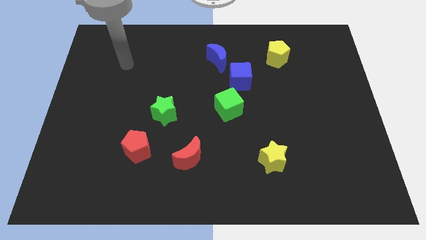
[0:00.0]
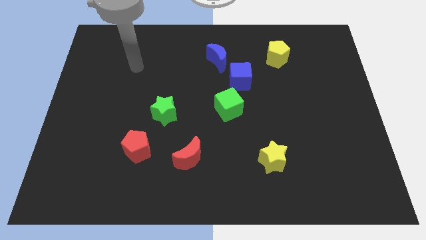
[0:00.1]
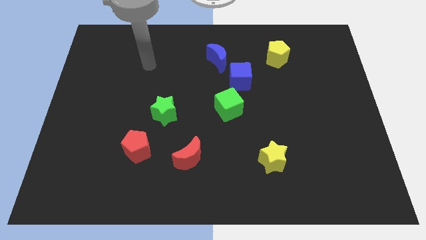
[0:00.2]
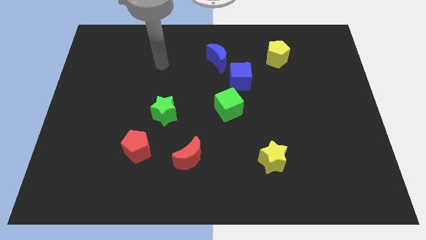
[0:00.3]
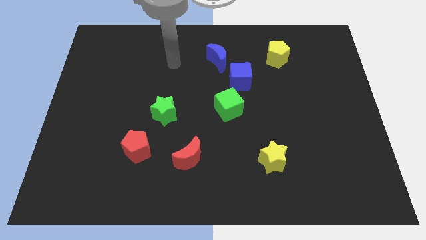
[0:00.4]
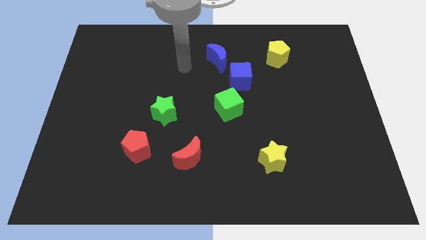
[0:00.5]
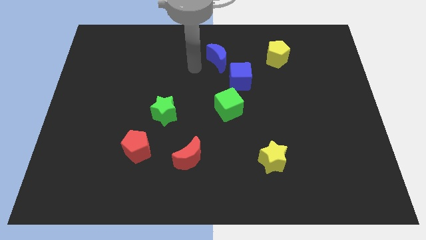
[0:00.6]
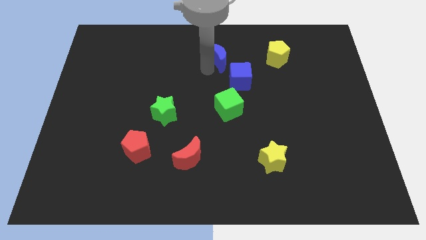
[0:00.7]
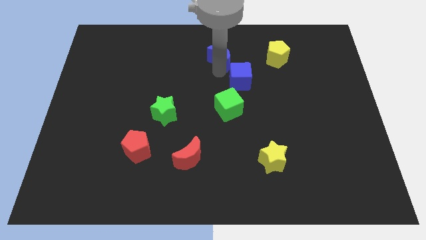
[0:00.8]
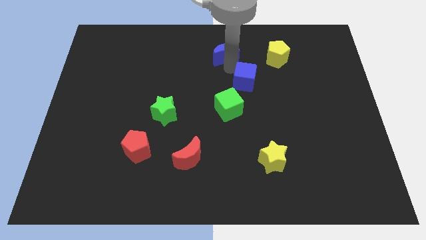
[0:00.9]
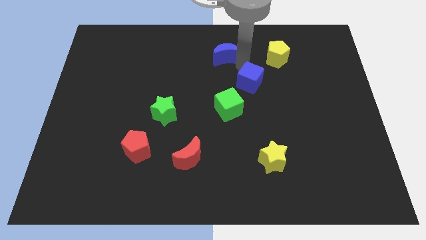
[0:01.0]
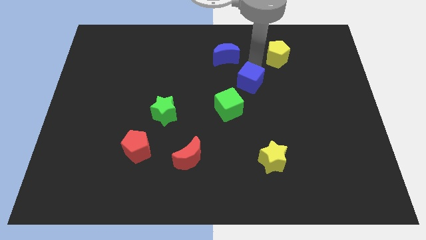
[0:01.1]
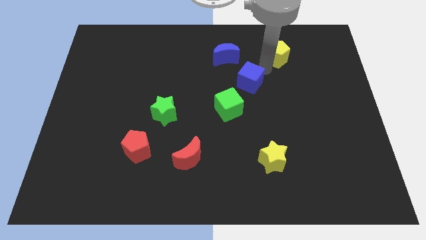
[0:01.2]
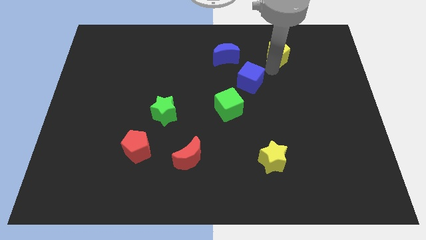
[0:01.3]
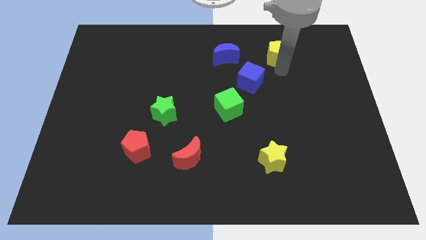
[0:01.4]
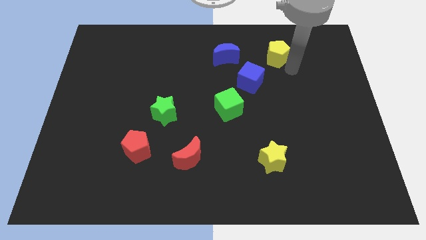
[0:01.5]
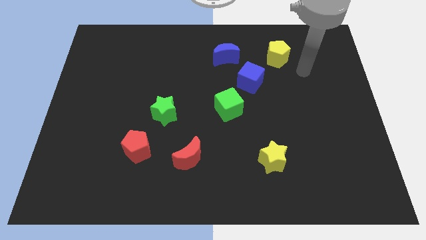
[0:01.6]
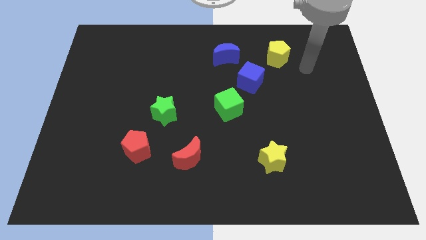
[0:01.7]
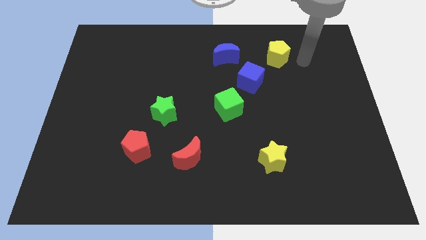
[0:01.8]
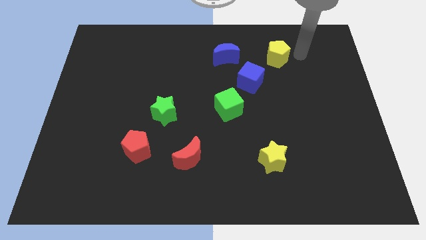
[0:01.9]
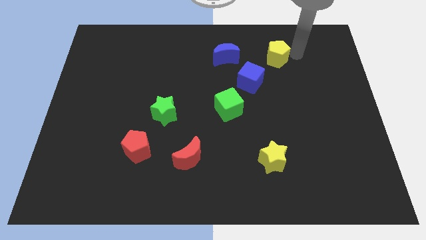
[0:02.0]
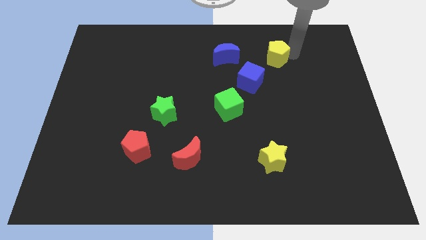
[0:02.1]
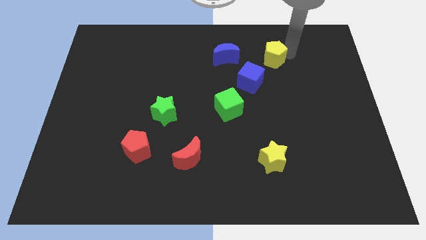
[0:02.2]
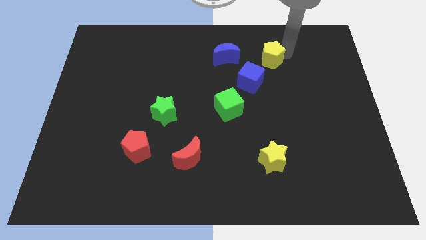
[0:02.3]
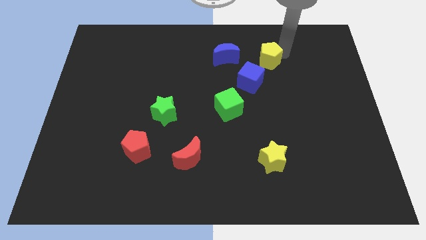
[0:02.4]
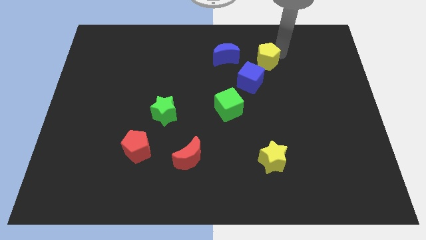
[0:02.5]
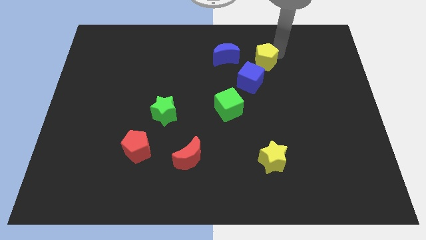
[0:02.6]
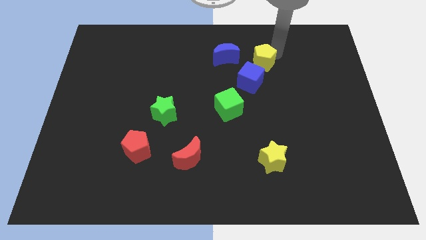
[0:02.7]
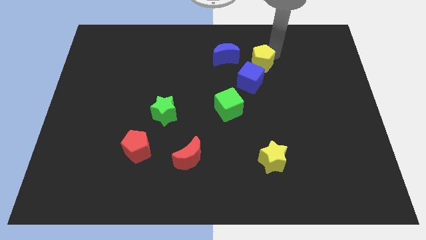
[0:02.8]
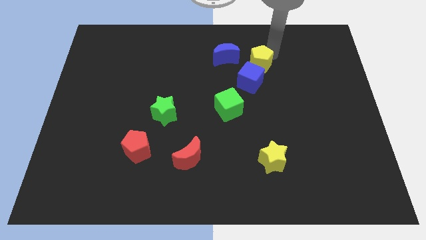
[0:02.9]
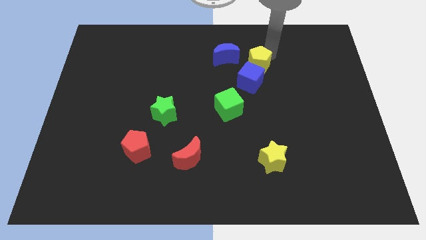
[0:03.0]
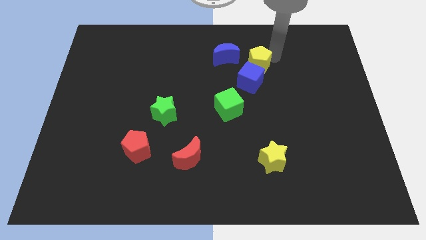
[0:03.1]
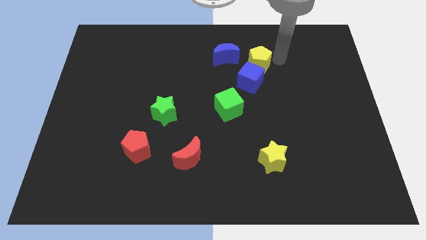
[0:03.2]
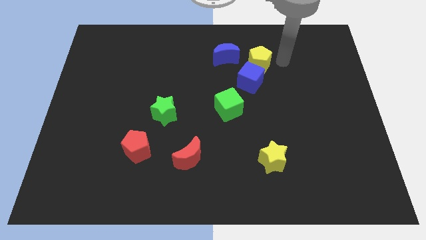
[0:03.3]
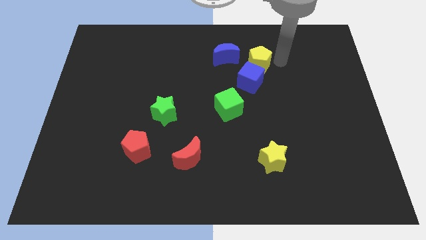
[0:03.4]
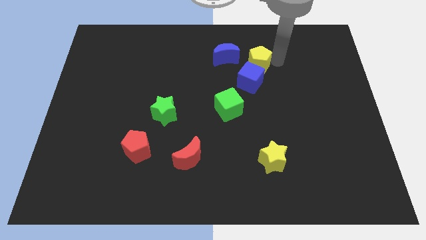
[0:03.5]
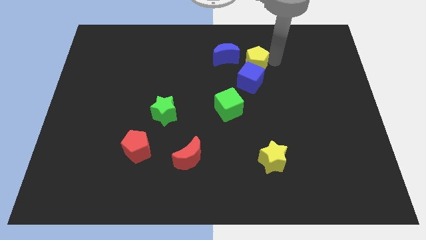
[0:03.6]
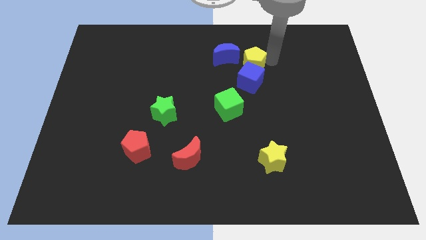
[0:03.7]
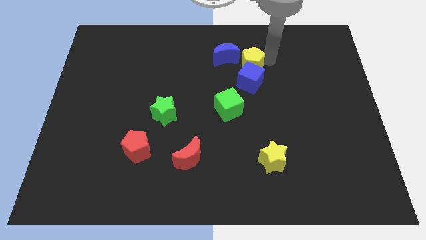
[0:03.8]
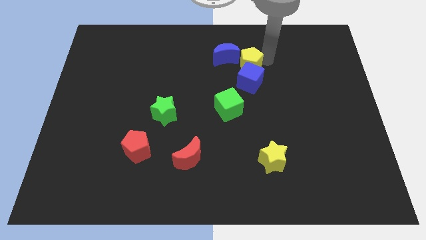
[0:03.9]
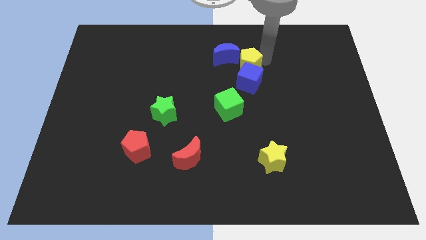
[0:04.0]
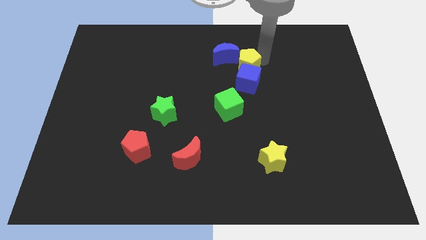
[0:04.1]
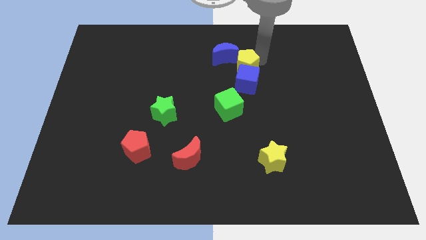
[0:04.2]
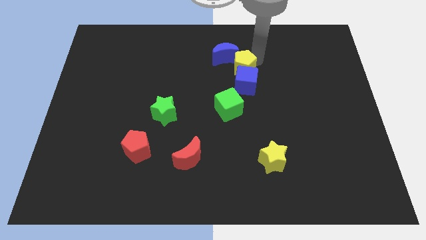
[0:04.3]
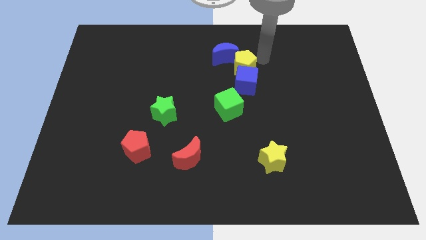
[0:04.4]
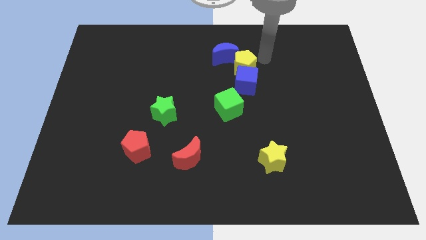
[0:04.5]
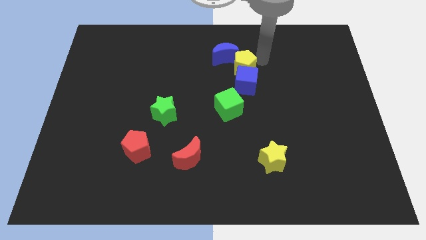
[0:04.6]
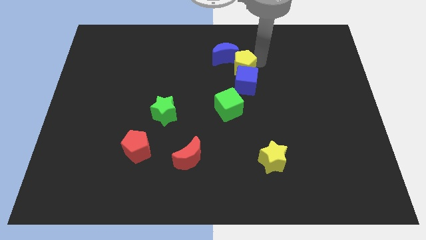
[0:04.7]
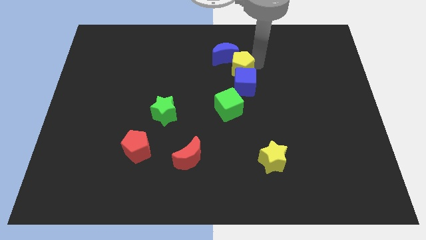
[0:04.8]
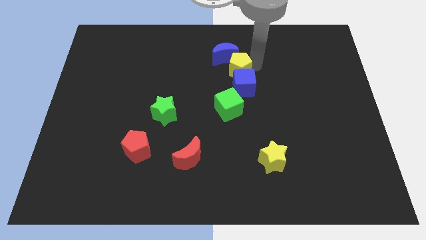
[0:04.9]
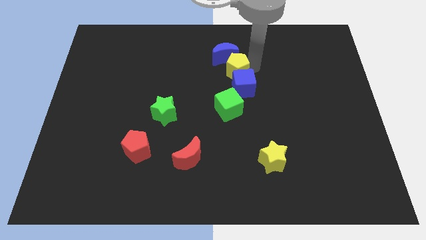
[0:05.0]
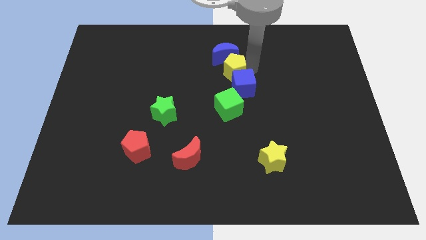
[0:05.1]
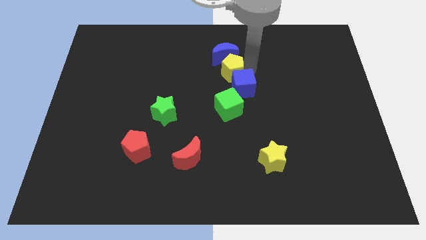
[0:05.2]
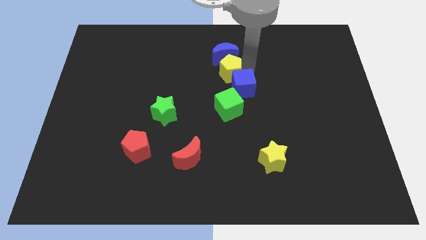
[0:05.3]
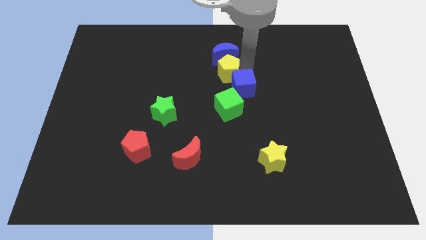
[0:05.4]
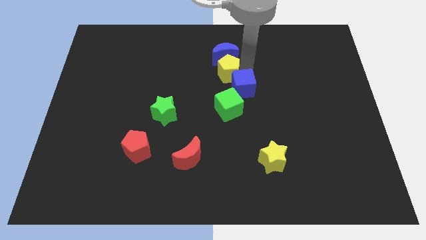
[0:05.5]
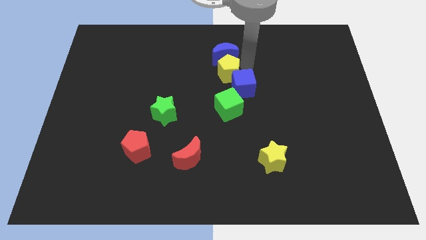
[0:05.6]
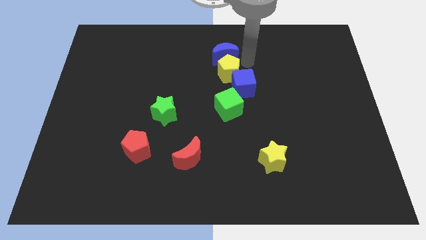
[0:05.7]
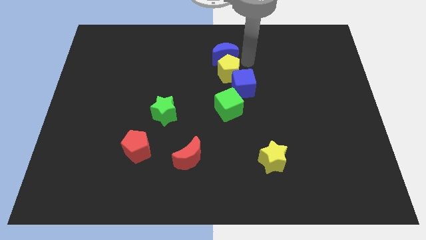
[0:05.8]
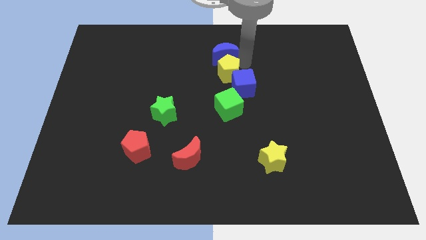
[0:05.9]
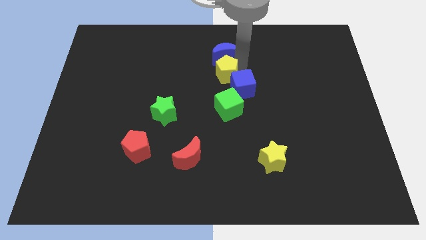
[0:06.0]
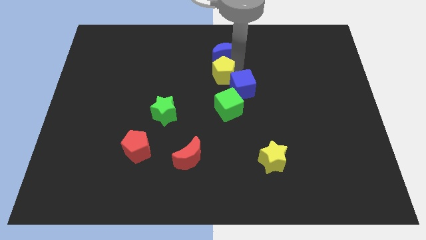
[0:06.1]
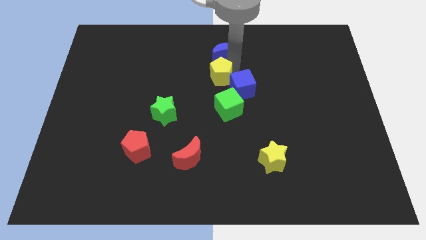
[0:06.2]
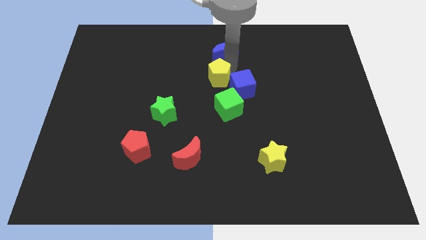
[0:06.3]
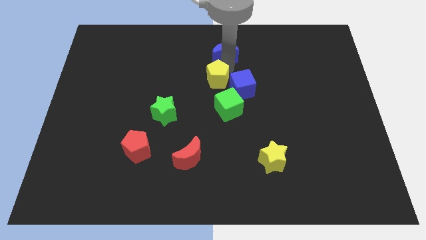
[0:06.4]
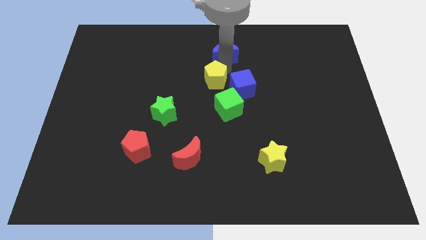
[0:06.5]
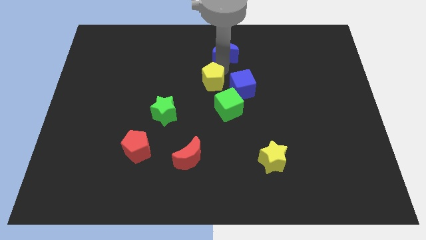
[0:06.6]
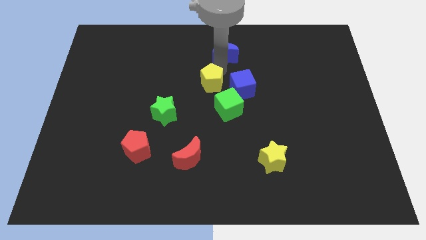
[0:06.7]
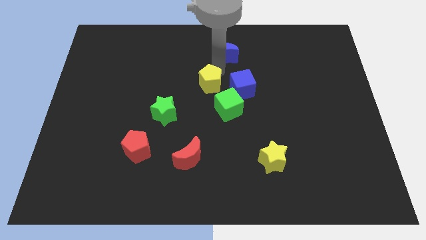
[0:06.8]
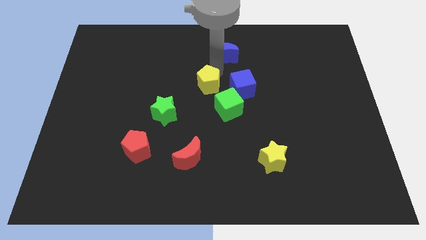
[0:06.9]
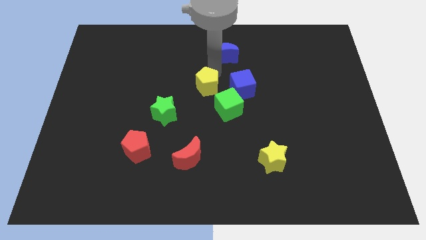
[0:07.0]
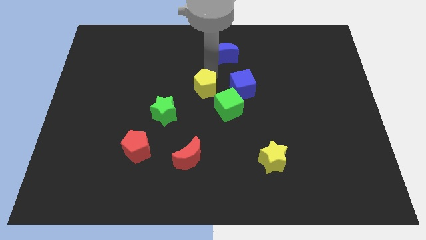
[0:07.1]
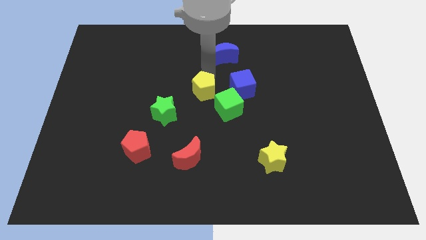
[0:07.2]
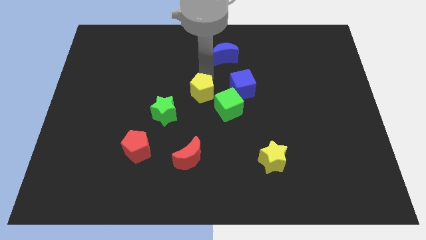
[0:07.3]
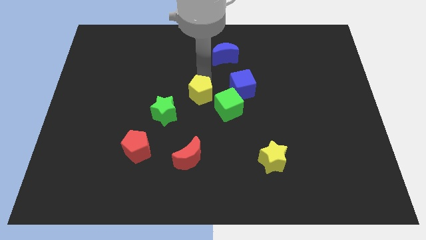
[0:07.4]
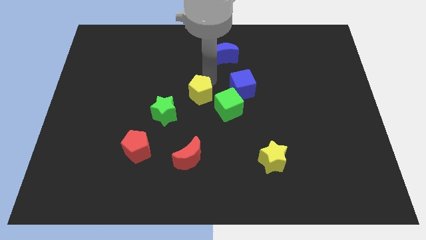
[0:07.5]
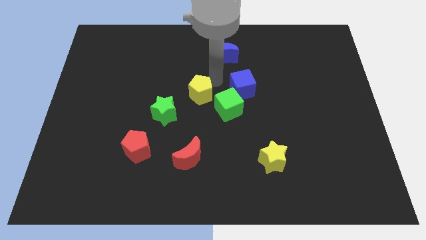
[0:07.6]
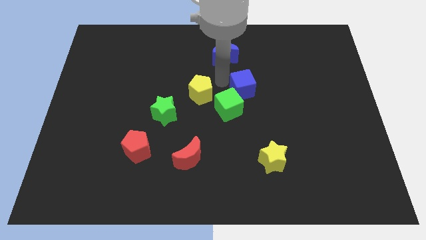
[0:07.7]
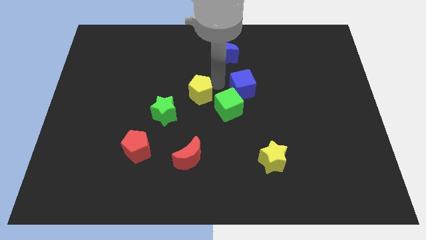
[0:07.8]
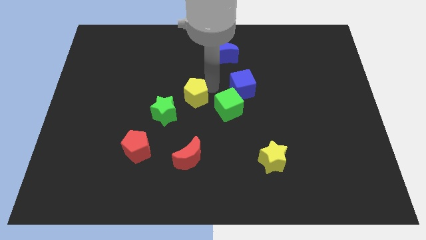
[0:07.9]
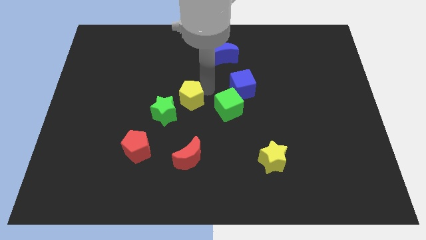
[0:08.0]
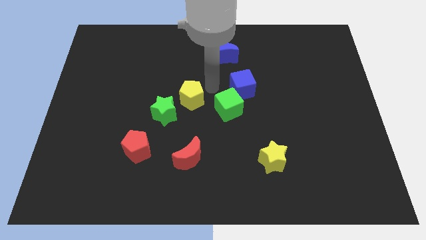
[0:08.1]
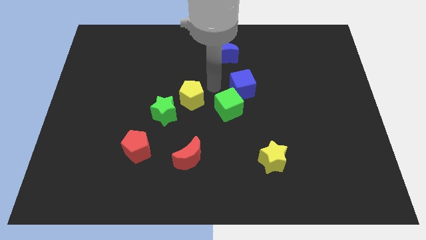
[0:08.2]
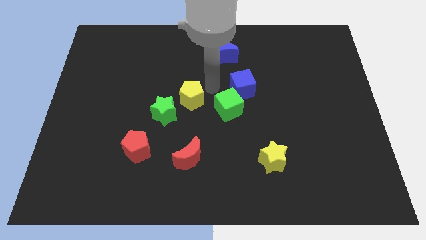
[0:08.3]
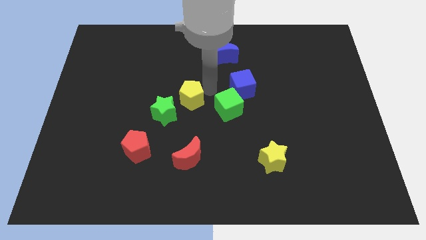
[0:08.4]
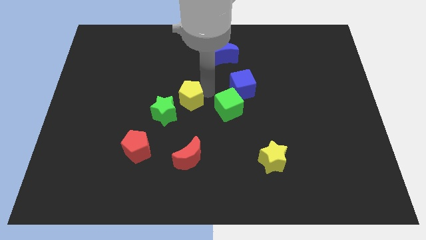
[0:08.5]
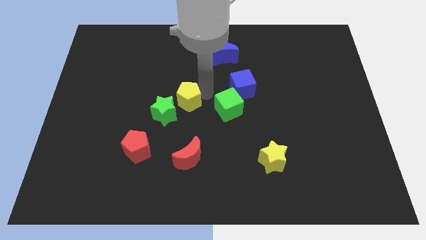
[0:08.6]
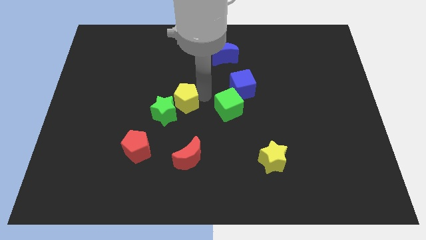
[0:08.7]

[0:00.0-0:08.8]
move the yellow pentagon close to the green star
